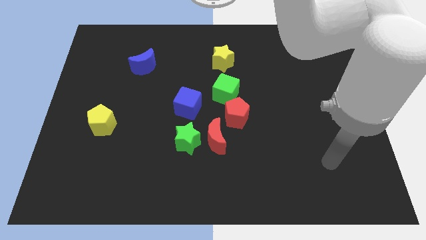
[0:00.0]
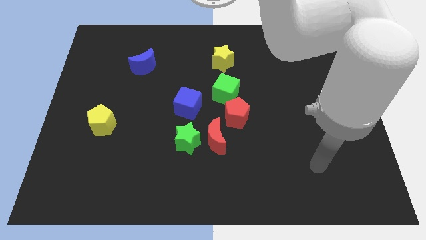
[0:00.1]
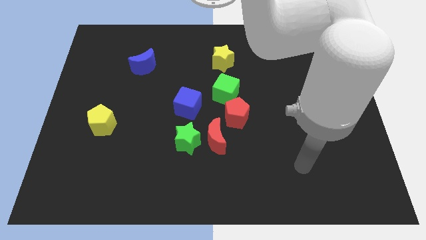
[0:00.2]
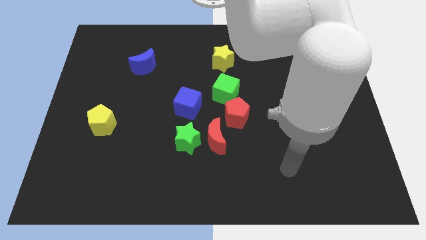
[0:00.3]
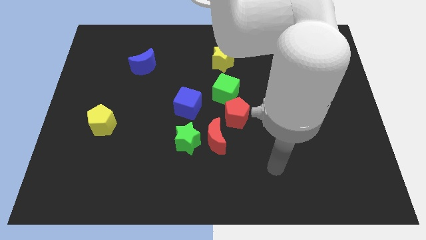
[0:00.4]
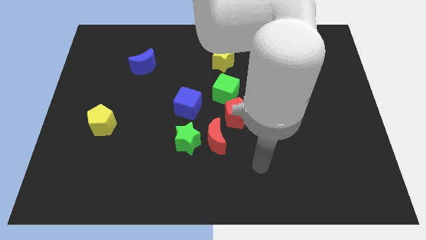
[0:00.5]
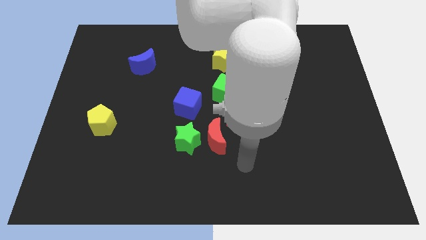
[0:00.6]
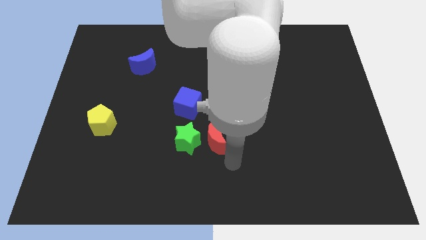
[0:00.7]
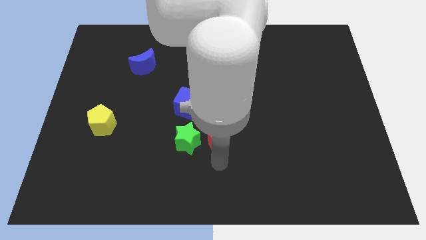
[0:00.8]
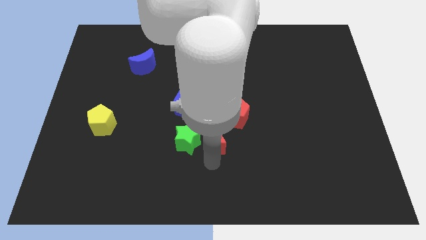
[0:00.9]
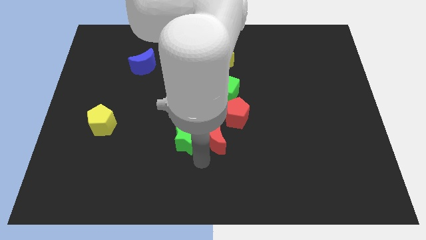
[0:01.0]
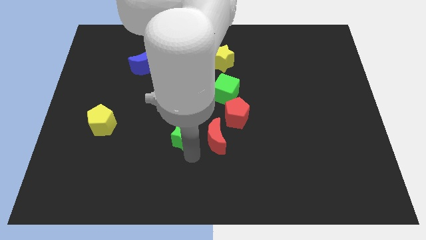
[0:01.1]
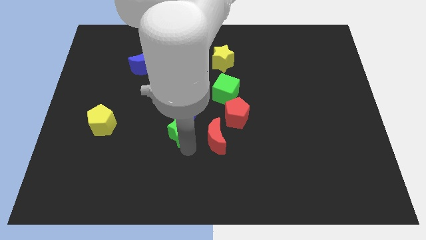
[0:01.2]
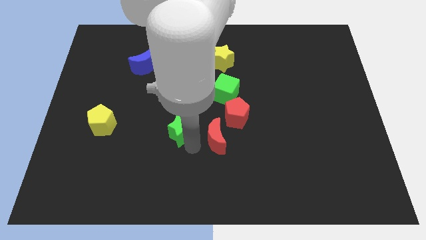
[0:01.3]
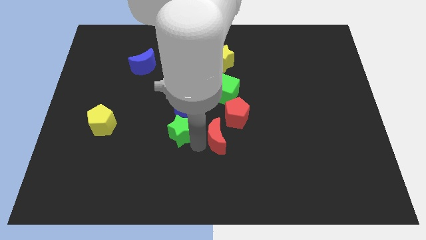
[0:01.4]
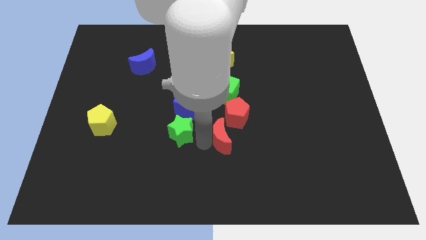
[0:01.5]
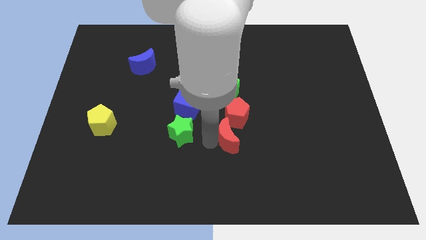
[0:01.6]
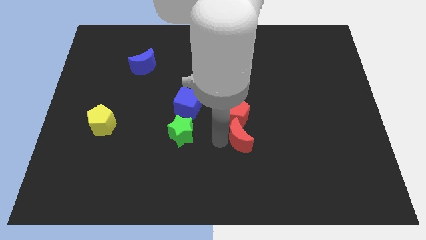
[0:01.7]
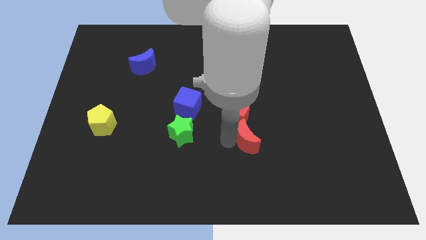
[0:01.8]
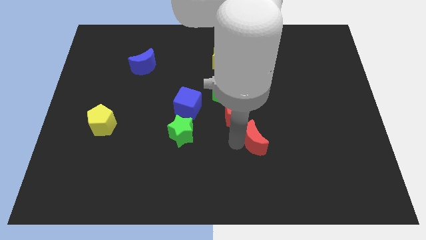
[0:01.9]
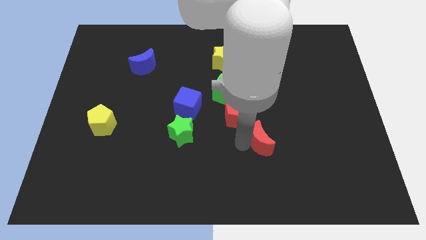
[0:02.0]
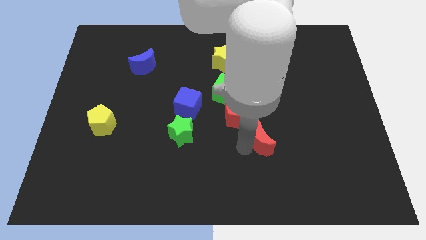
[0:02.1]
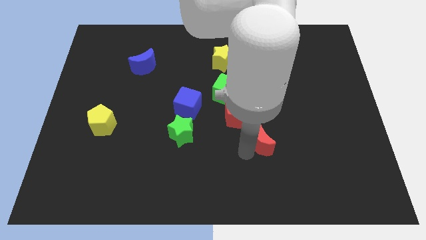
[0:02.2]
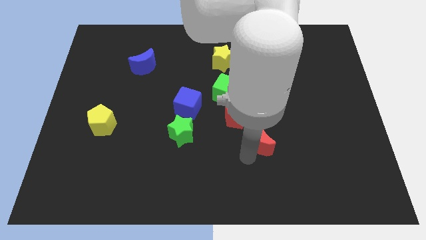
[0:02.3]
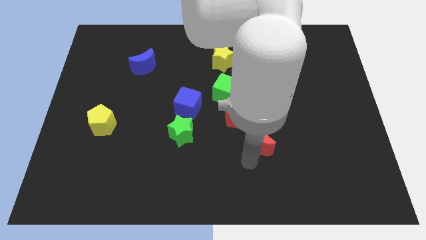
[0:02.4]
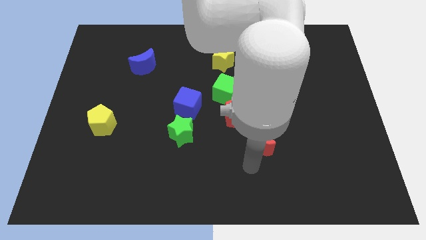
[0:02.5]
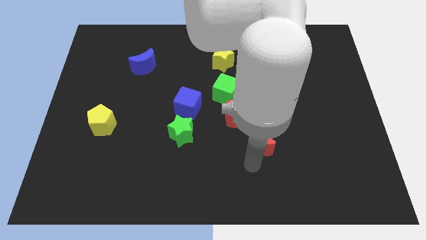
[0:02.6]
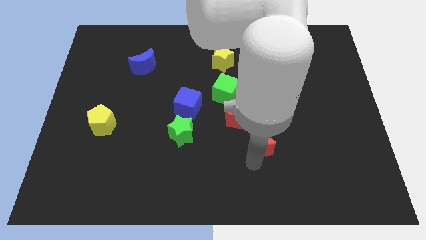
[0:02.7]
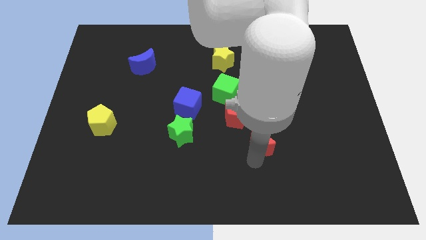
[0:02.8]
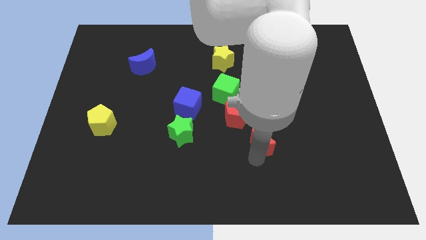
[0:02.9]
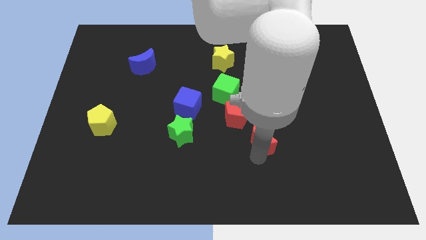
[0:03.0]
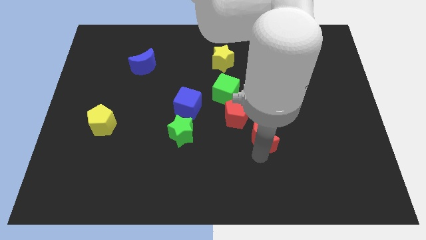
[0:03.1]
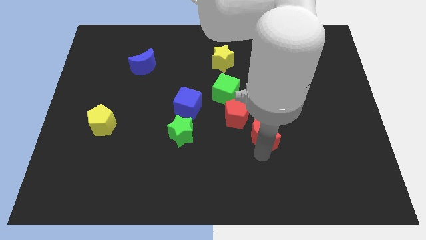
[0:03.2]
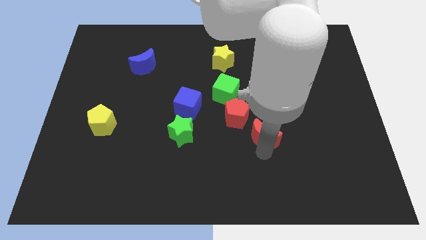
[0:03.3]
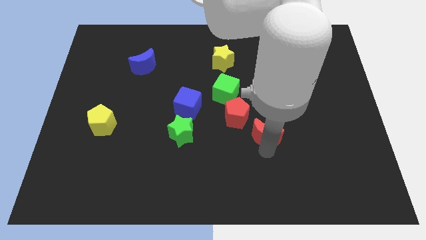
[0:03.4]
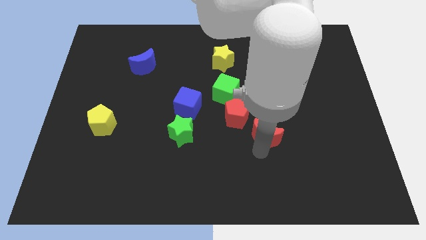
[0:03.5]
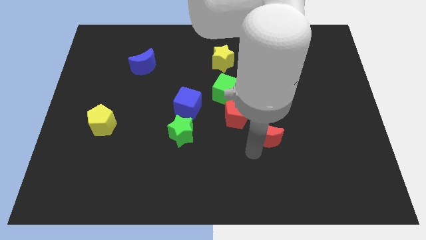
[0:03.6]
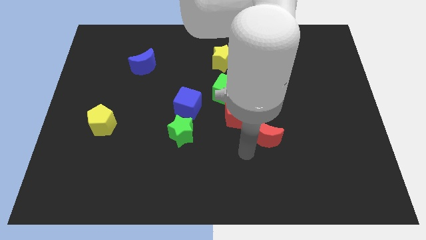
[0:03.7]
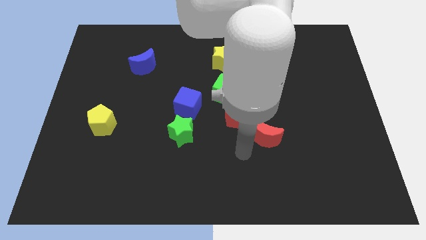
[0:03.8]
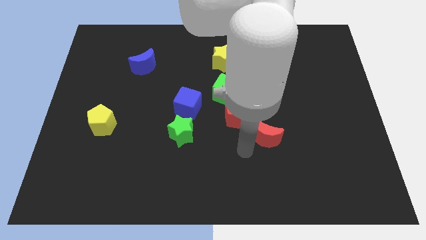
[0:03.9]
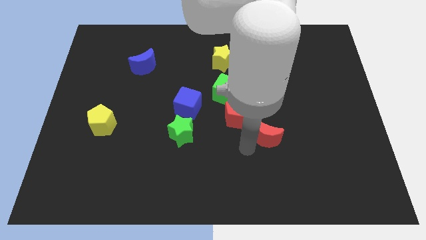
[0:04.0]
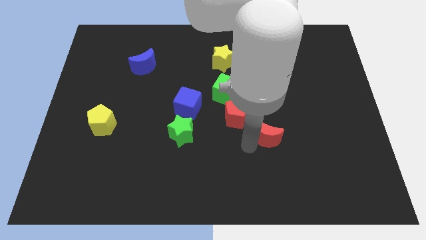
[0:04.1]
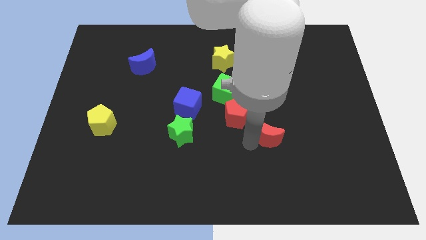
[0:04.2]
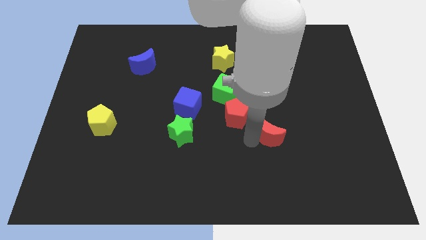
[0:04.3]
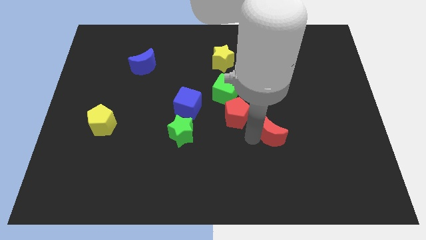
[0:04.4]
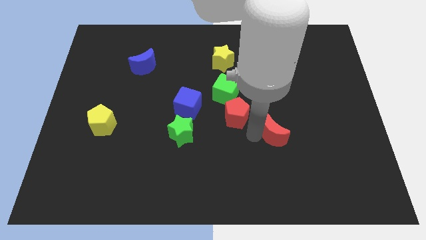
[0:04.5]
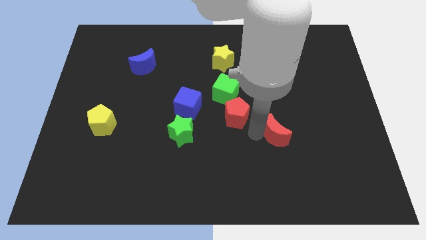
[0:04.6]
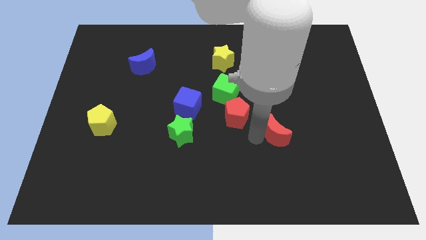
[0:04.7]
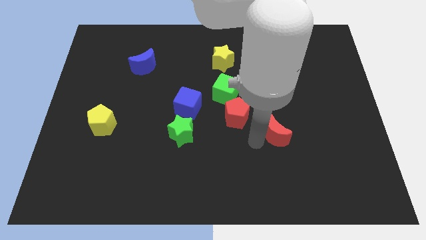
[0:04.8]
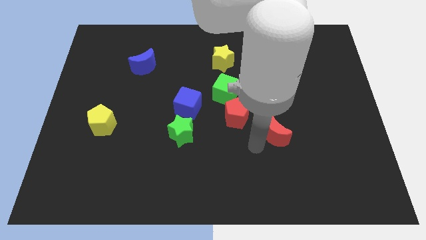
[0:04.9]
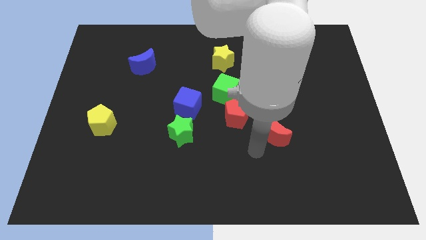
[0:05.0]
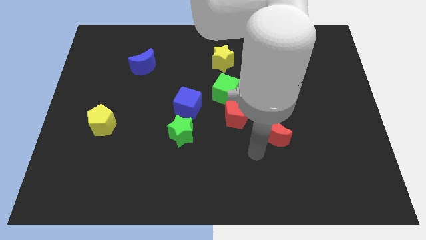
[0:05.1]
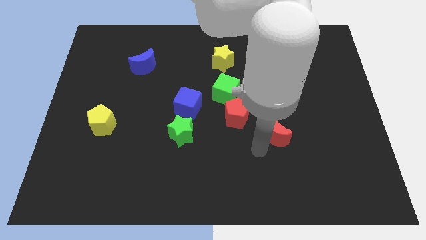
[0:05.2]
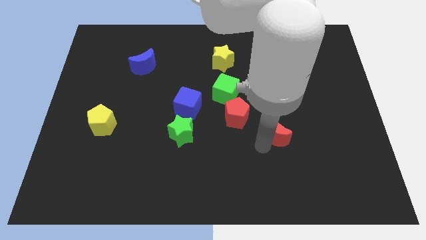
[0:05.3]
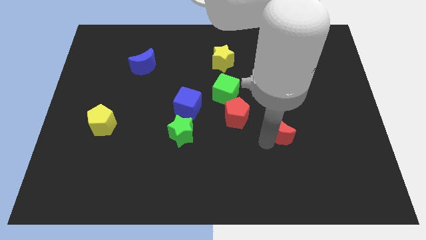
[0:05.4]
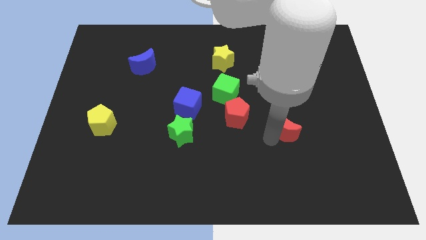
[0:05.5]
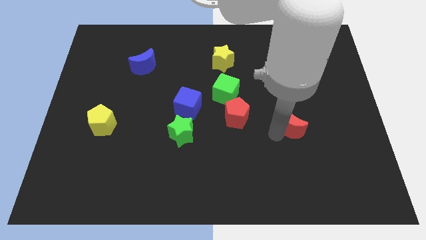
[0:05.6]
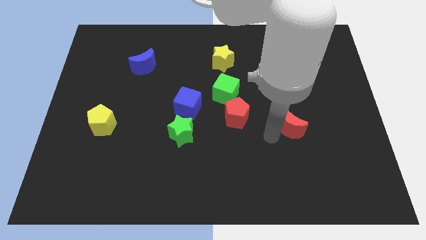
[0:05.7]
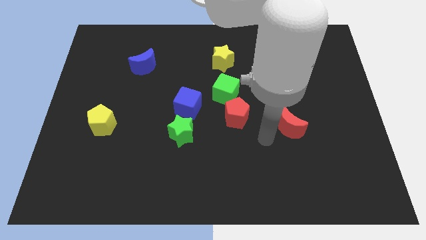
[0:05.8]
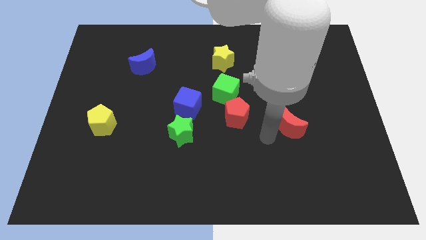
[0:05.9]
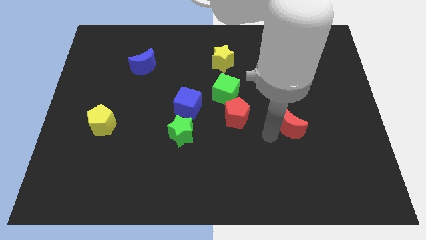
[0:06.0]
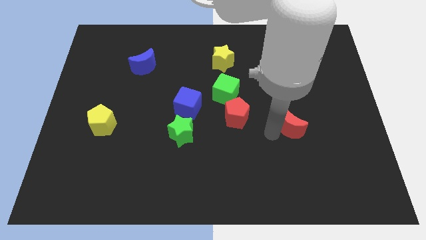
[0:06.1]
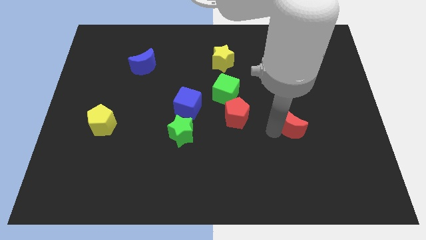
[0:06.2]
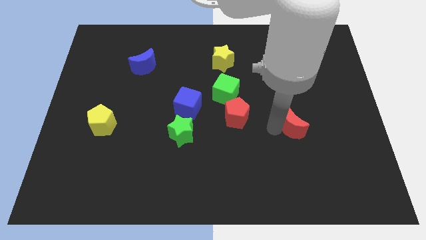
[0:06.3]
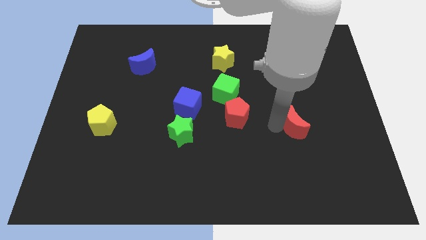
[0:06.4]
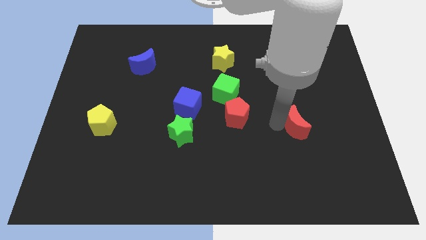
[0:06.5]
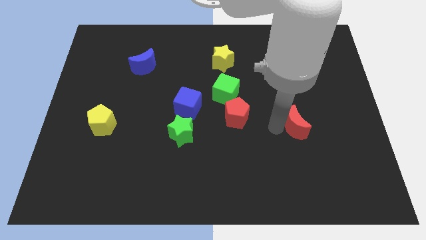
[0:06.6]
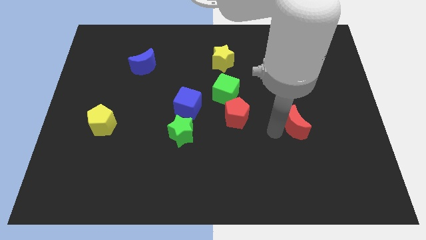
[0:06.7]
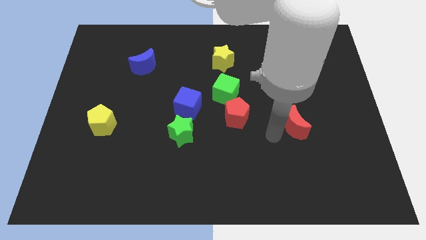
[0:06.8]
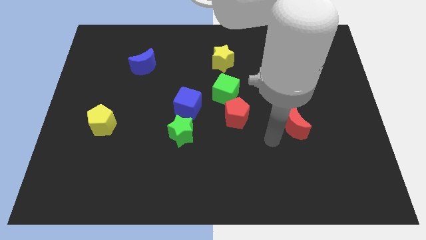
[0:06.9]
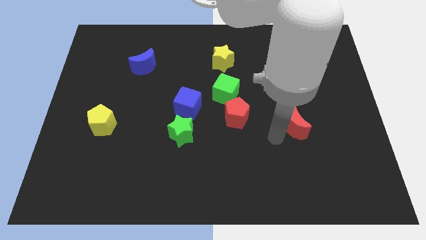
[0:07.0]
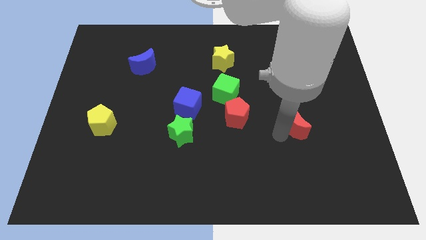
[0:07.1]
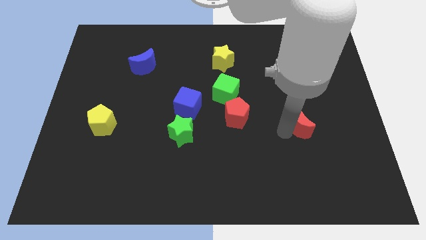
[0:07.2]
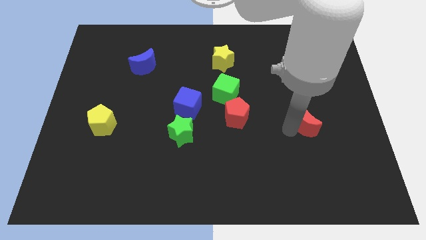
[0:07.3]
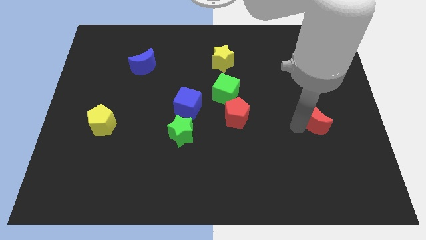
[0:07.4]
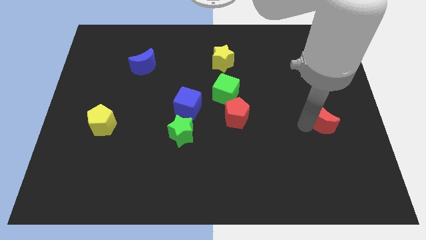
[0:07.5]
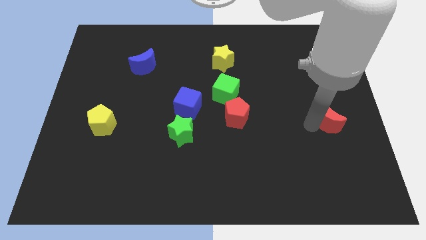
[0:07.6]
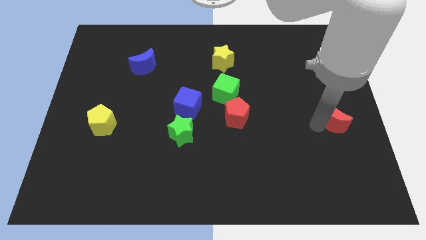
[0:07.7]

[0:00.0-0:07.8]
put the red moon to the right side of the board
